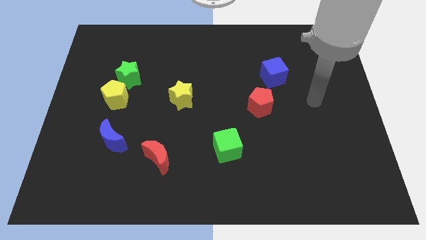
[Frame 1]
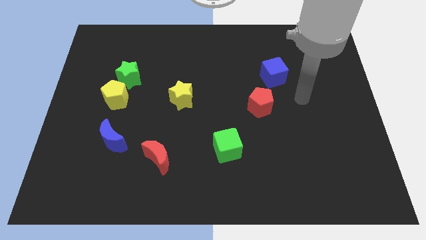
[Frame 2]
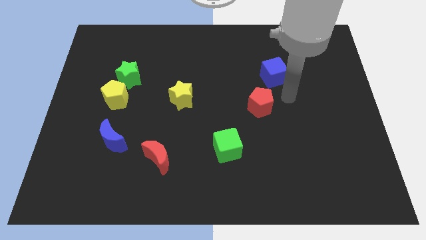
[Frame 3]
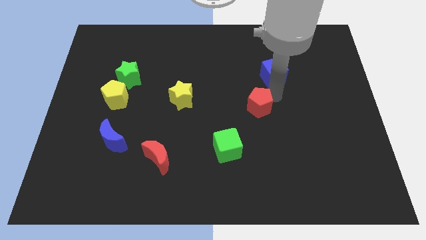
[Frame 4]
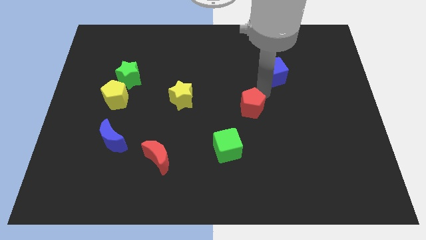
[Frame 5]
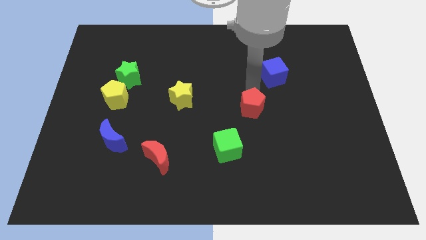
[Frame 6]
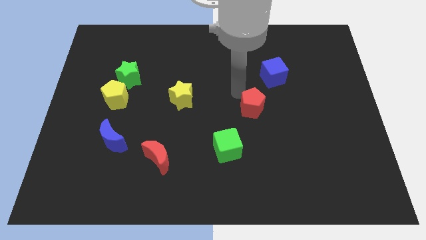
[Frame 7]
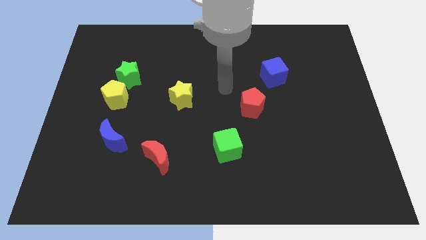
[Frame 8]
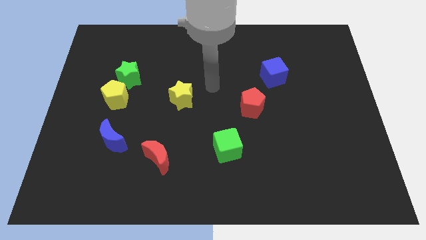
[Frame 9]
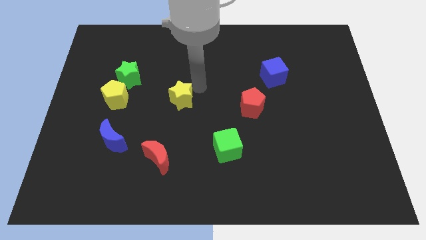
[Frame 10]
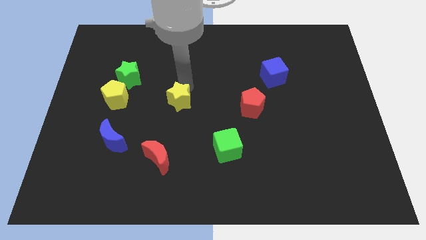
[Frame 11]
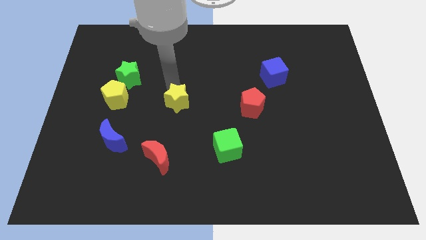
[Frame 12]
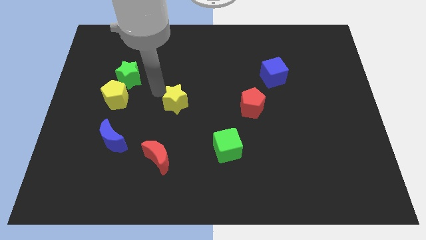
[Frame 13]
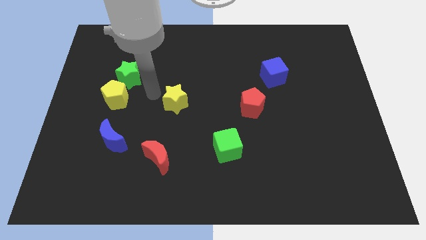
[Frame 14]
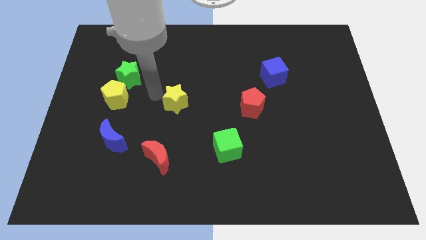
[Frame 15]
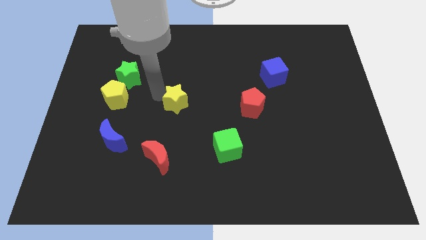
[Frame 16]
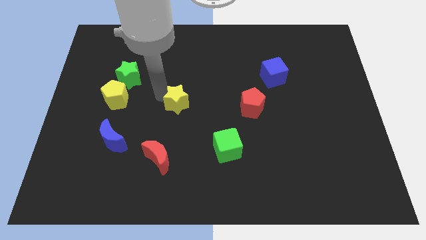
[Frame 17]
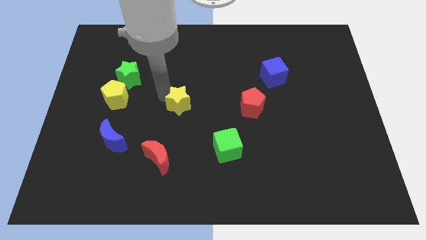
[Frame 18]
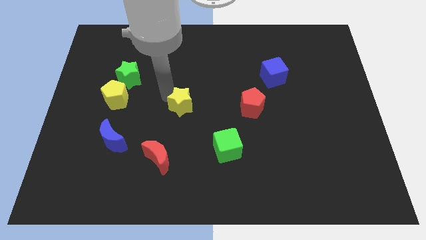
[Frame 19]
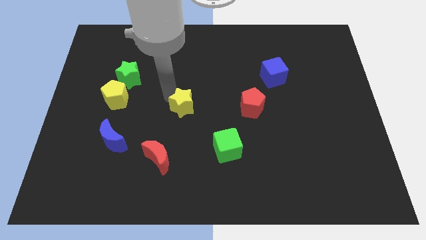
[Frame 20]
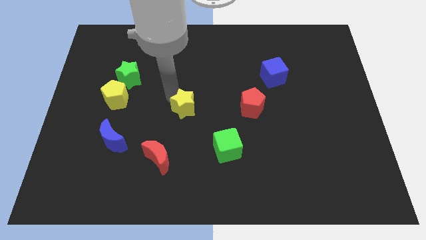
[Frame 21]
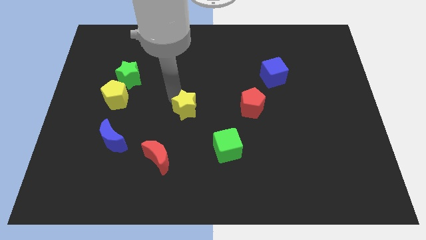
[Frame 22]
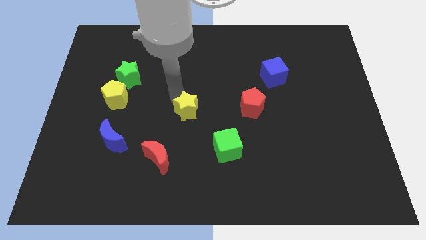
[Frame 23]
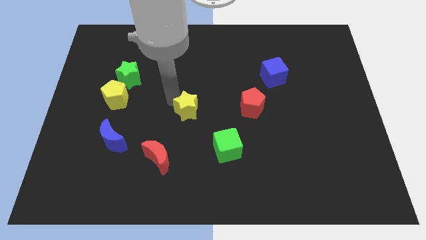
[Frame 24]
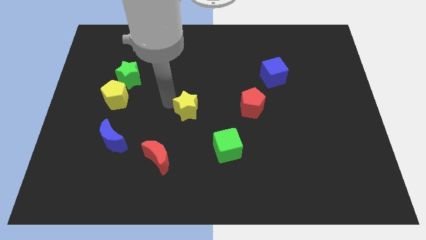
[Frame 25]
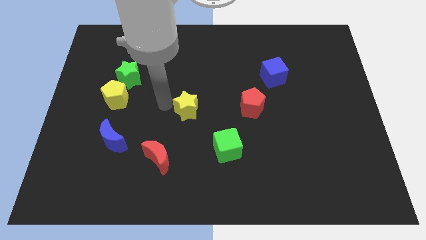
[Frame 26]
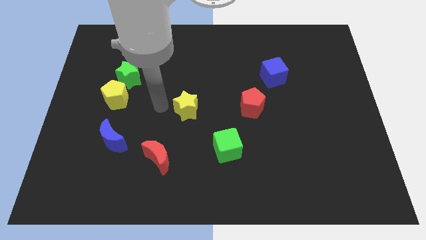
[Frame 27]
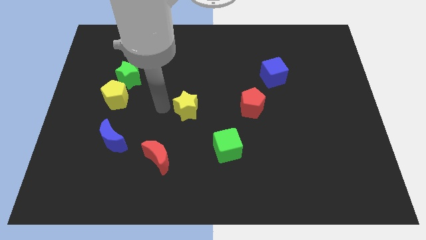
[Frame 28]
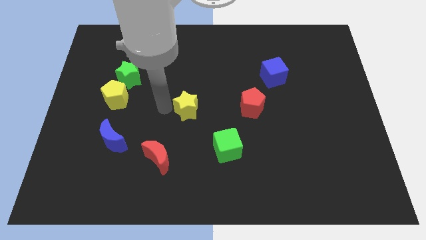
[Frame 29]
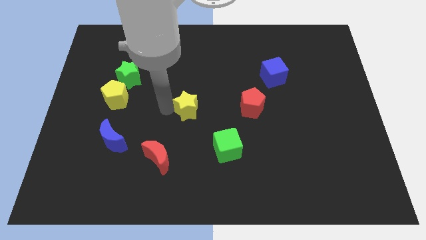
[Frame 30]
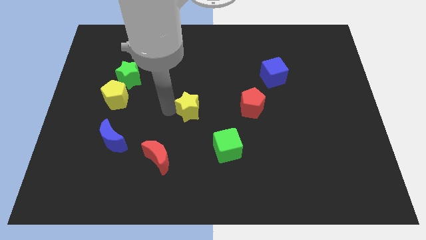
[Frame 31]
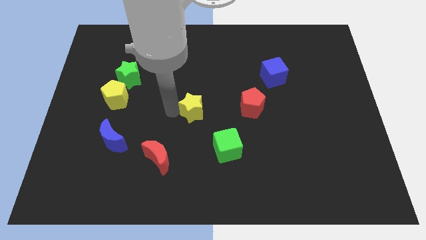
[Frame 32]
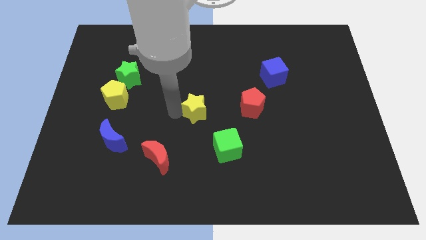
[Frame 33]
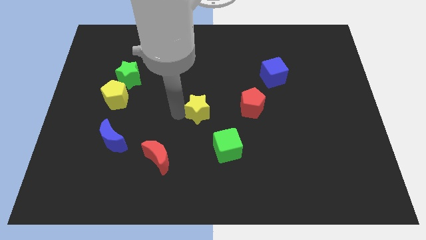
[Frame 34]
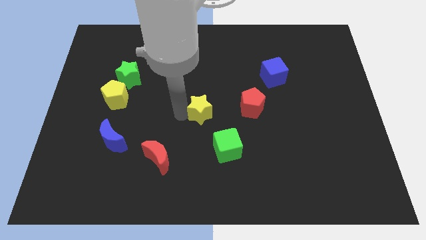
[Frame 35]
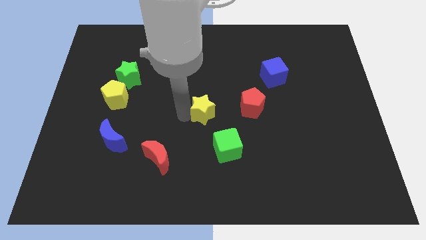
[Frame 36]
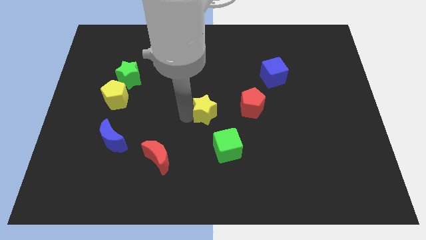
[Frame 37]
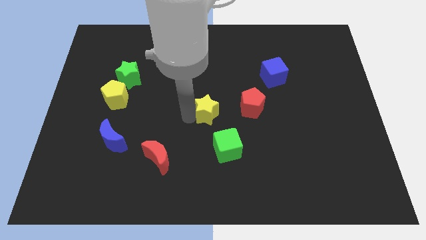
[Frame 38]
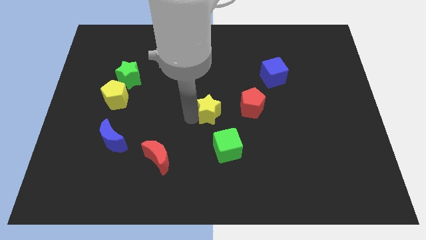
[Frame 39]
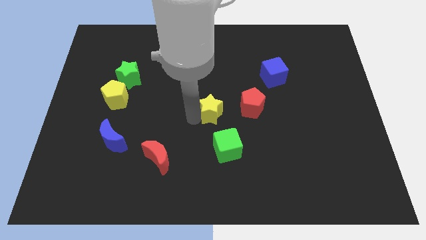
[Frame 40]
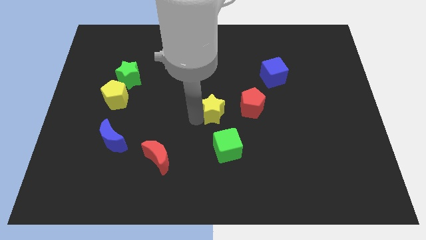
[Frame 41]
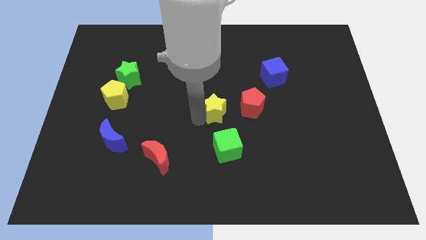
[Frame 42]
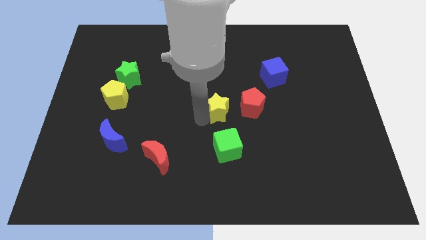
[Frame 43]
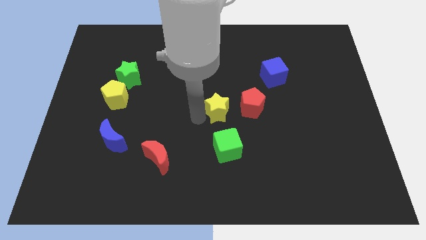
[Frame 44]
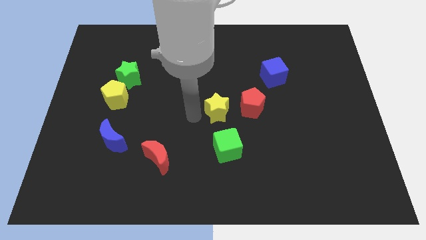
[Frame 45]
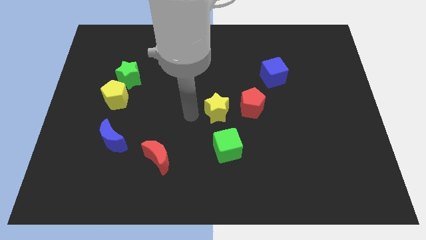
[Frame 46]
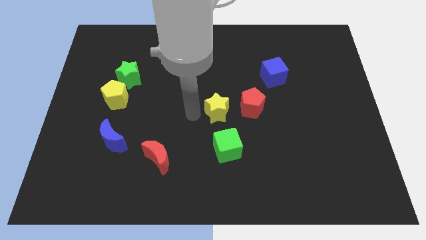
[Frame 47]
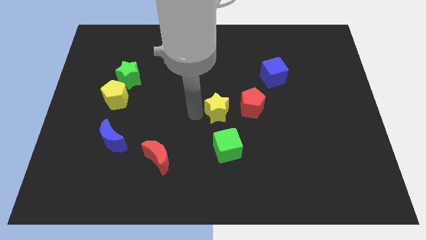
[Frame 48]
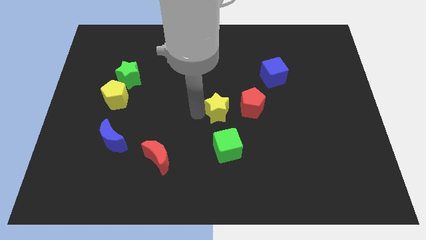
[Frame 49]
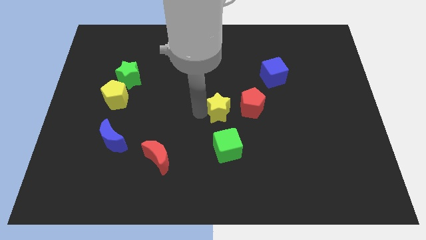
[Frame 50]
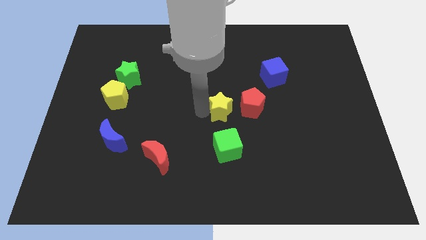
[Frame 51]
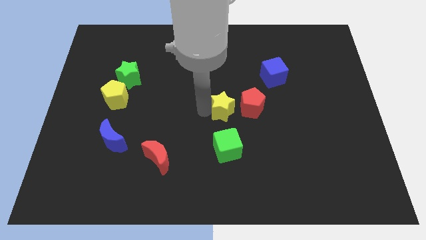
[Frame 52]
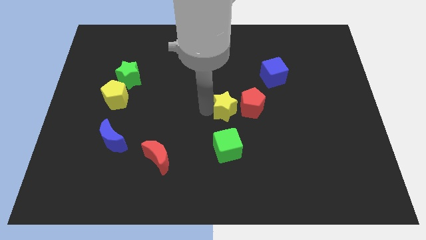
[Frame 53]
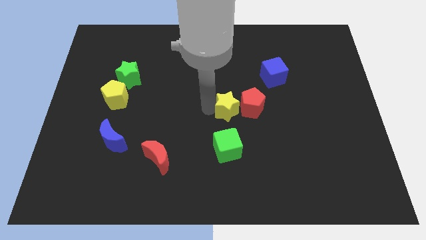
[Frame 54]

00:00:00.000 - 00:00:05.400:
move the yellow star towards the red pentagon

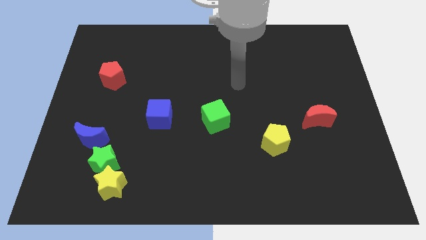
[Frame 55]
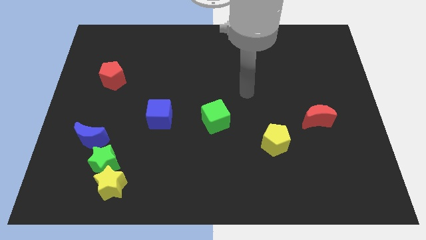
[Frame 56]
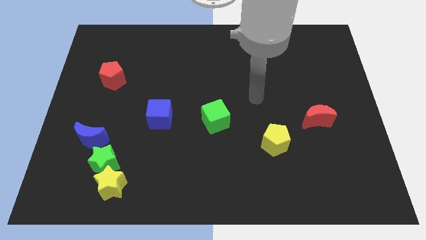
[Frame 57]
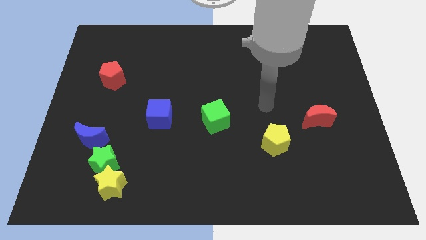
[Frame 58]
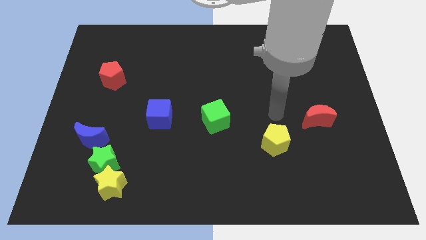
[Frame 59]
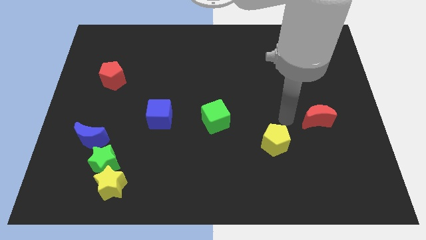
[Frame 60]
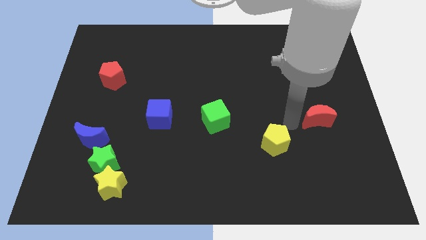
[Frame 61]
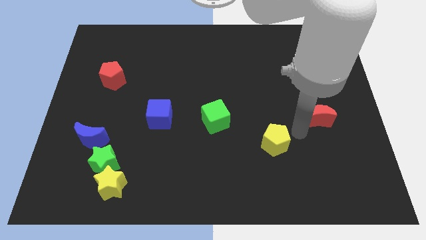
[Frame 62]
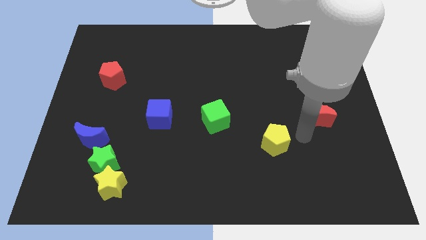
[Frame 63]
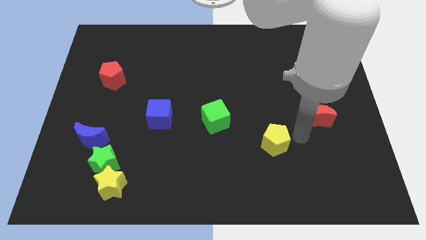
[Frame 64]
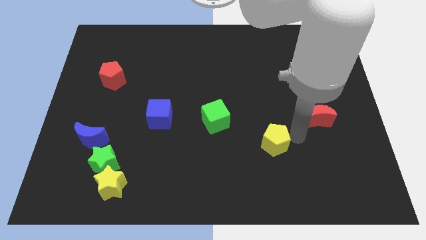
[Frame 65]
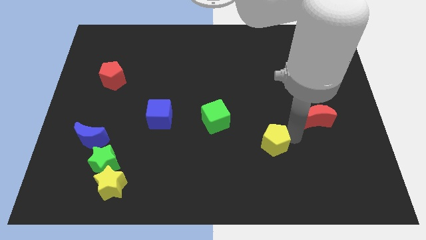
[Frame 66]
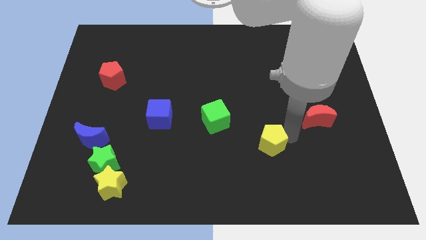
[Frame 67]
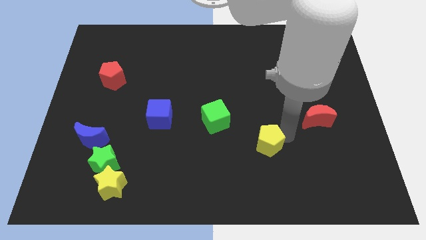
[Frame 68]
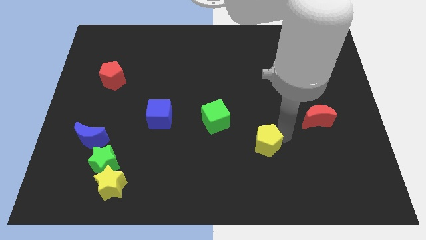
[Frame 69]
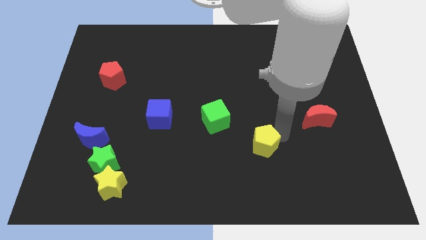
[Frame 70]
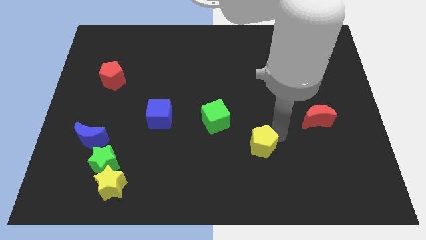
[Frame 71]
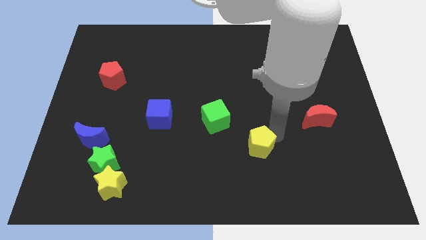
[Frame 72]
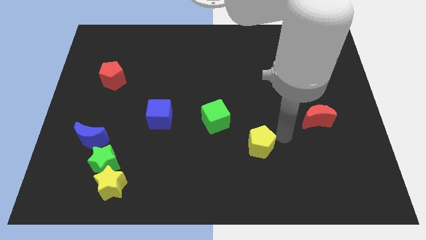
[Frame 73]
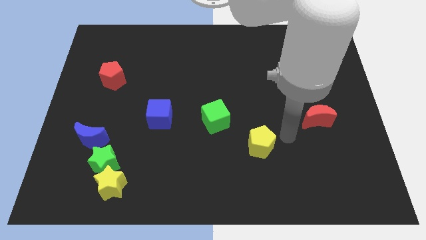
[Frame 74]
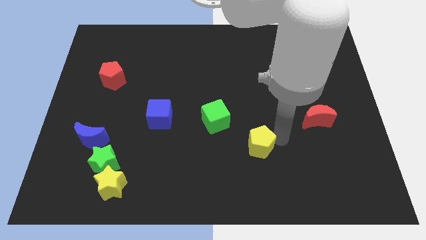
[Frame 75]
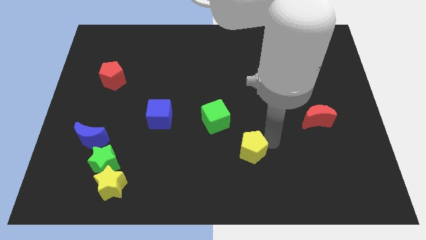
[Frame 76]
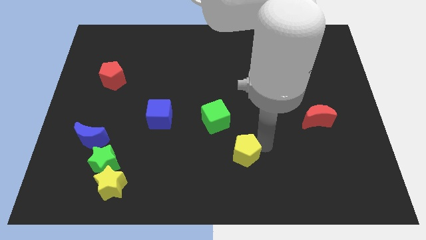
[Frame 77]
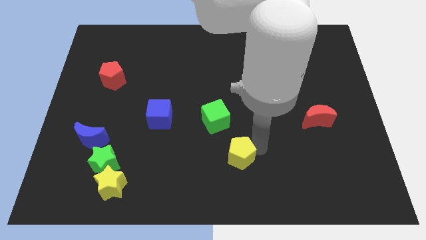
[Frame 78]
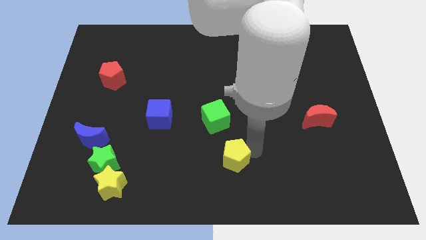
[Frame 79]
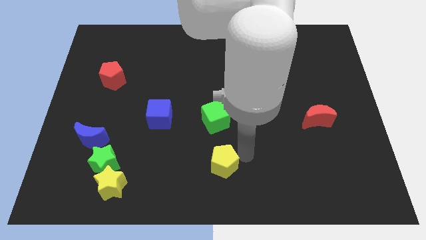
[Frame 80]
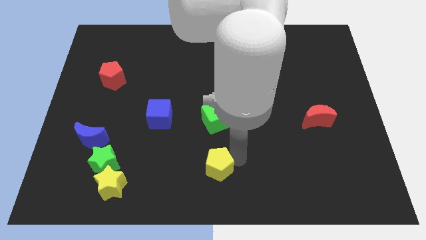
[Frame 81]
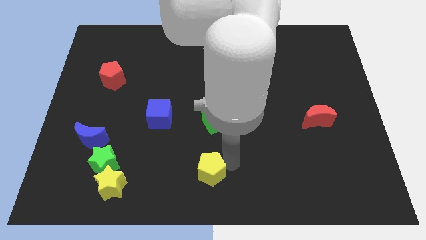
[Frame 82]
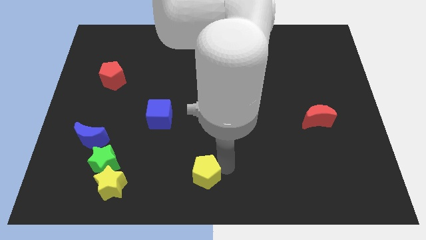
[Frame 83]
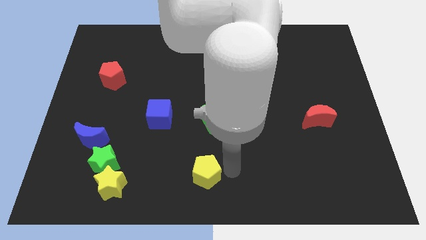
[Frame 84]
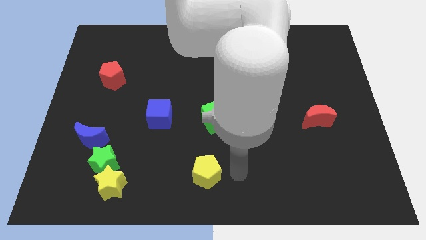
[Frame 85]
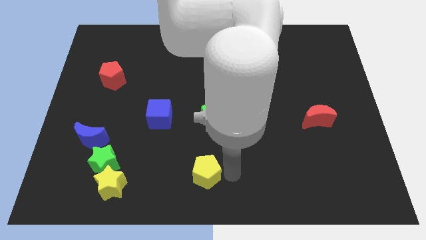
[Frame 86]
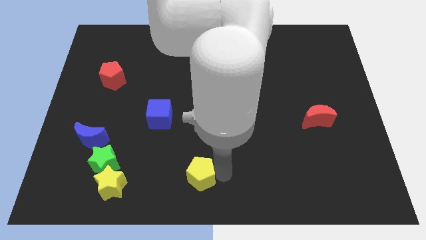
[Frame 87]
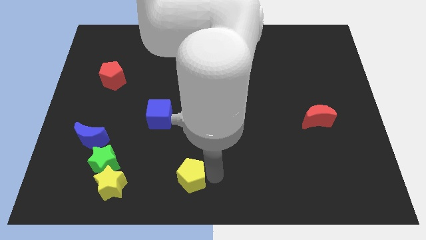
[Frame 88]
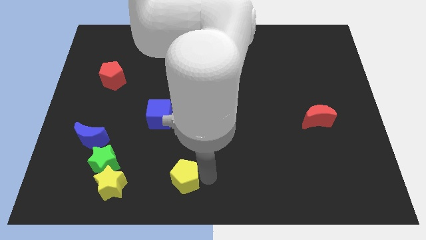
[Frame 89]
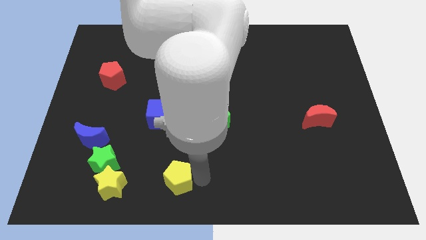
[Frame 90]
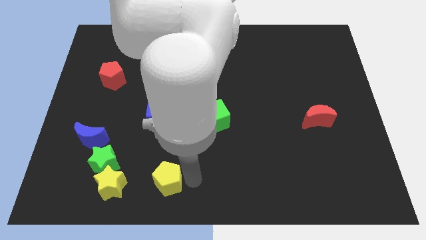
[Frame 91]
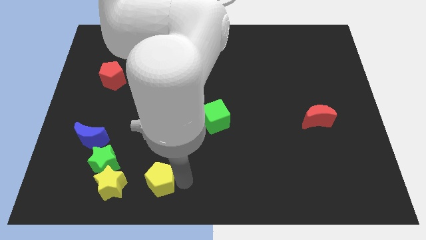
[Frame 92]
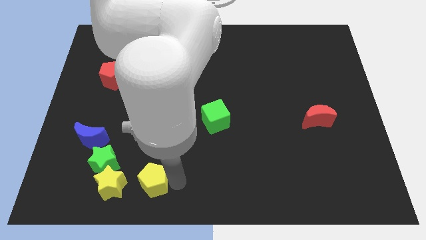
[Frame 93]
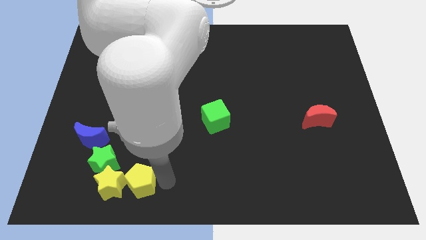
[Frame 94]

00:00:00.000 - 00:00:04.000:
slide the yellow pentagon next to the yellow star
